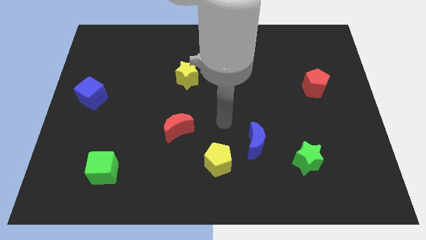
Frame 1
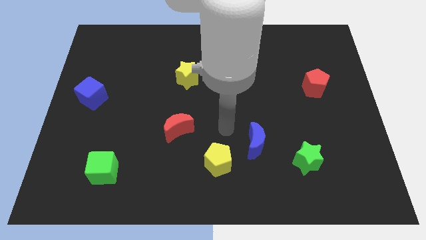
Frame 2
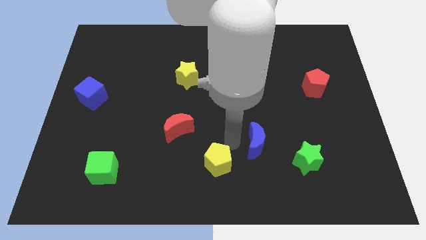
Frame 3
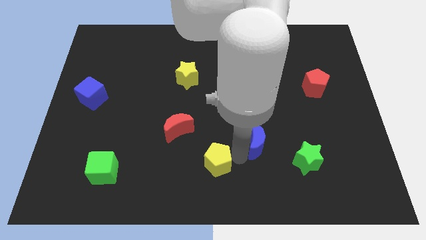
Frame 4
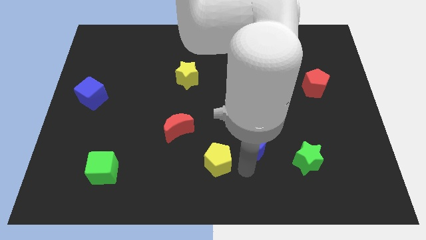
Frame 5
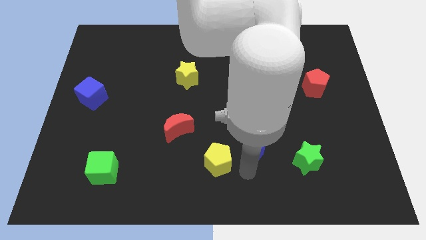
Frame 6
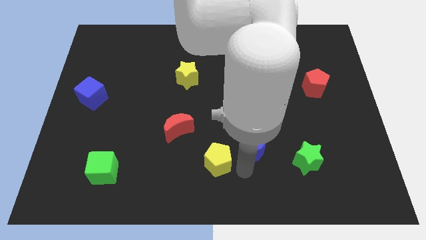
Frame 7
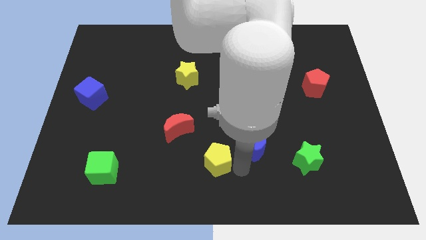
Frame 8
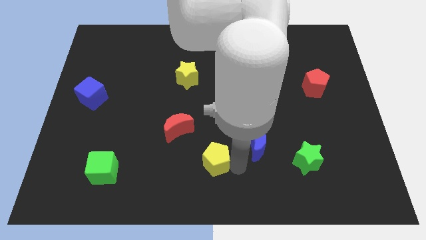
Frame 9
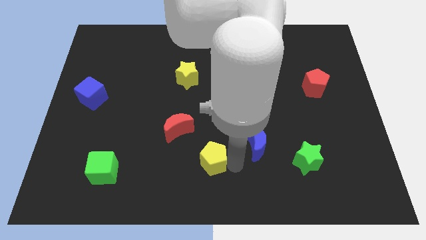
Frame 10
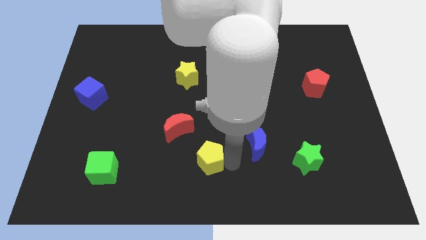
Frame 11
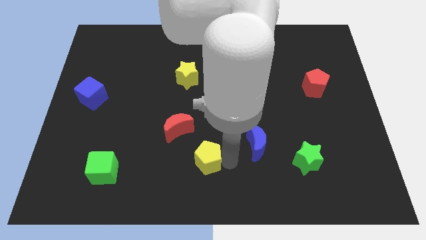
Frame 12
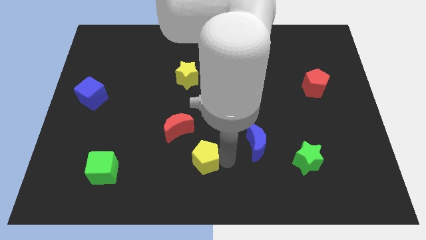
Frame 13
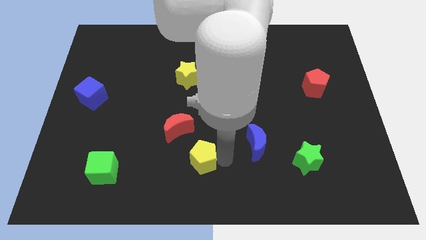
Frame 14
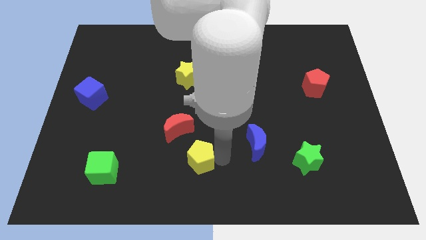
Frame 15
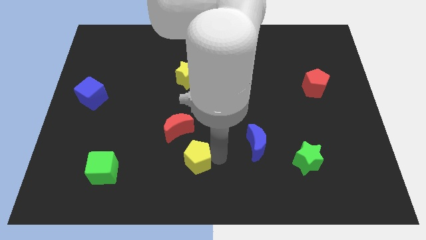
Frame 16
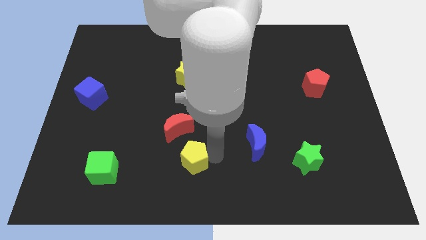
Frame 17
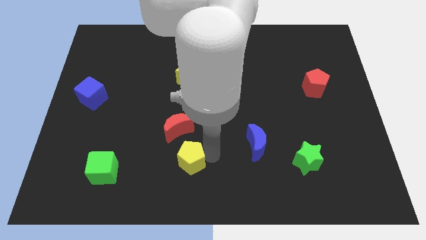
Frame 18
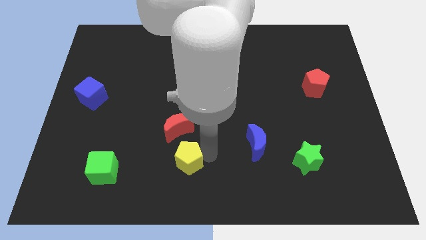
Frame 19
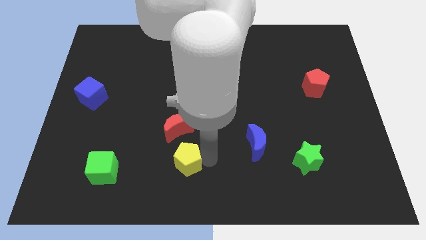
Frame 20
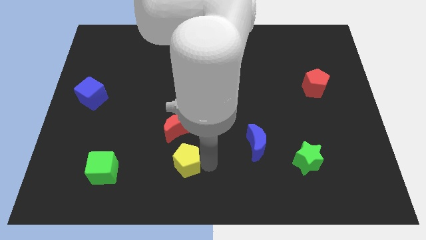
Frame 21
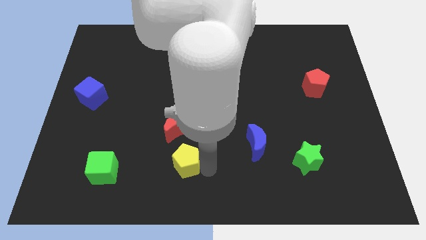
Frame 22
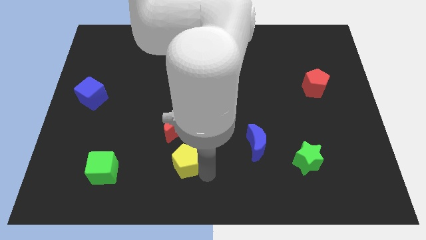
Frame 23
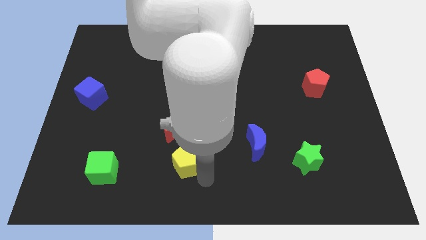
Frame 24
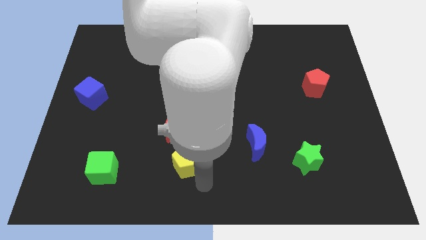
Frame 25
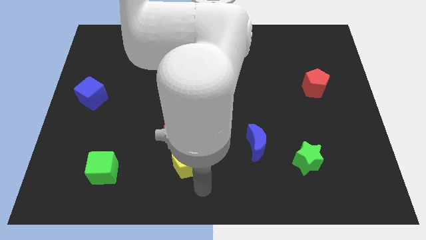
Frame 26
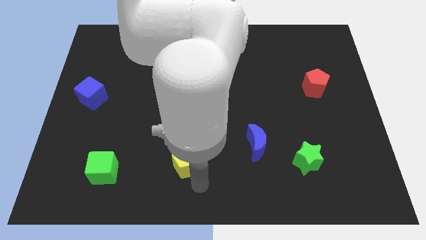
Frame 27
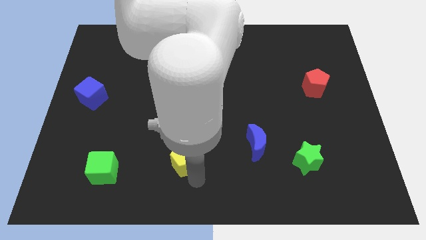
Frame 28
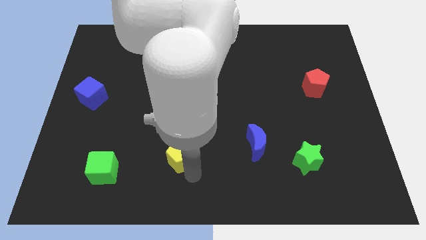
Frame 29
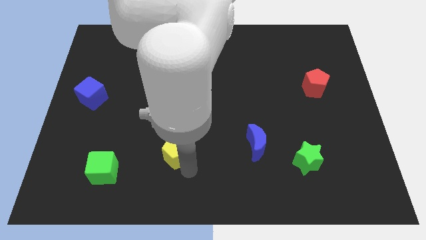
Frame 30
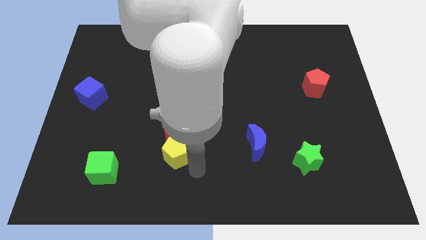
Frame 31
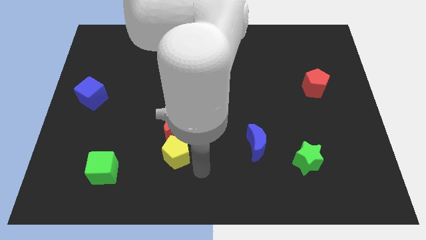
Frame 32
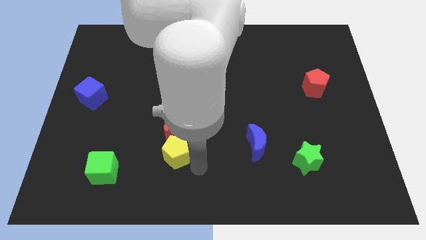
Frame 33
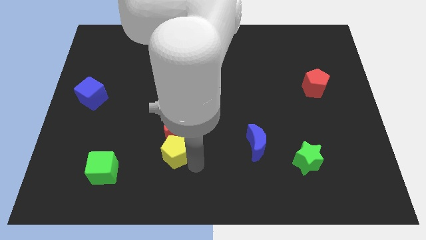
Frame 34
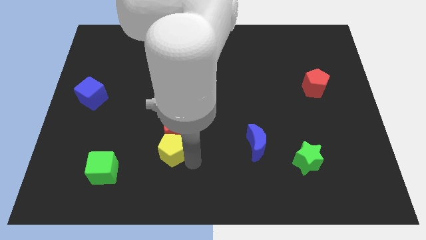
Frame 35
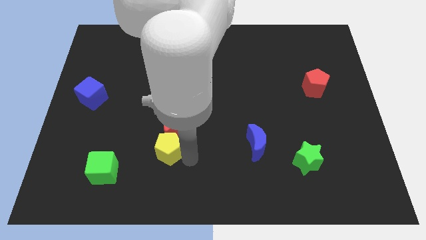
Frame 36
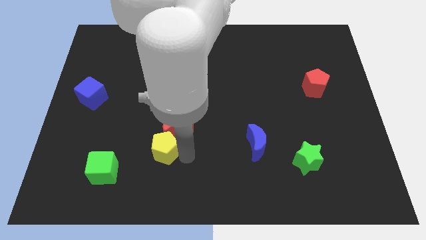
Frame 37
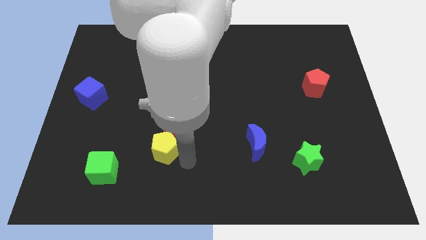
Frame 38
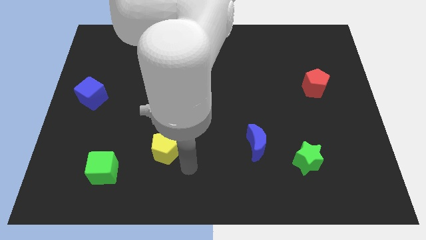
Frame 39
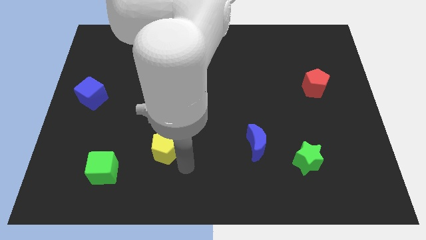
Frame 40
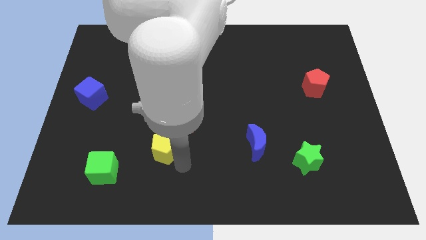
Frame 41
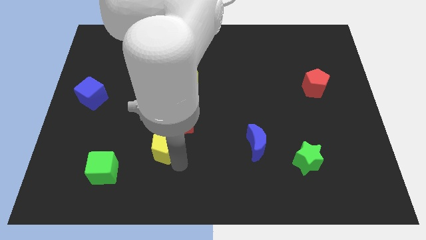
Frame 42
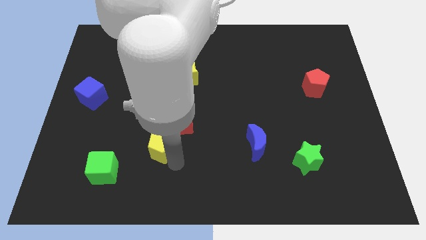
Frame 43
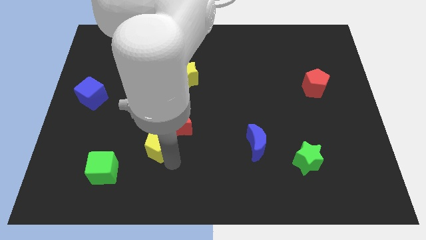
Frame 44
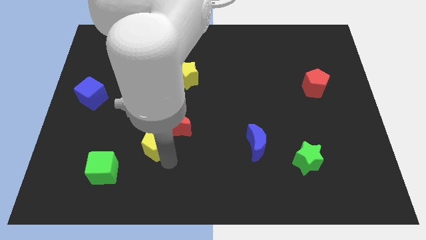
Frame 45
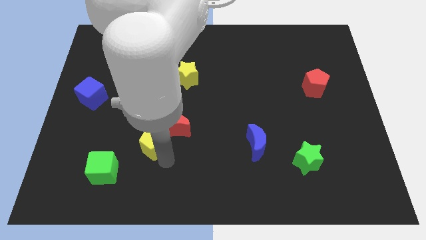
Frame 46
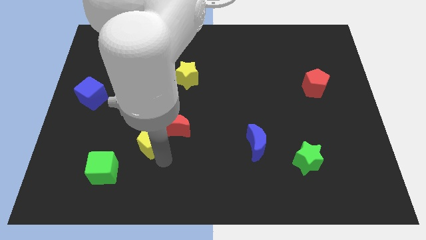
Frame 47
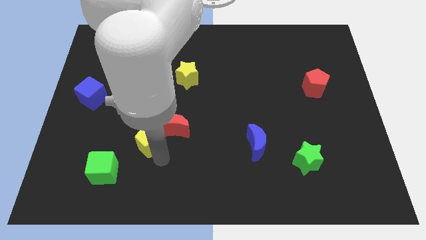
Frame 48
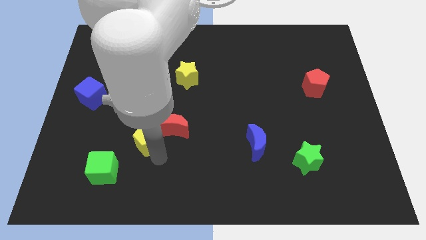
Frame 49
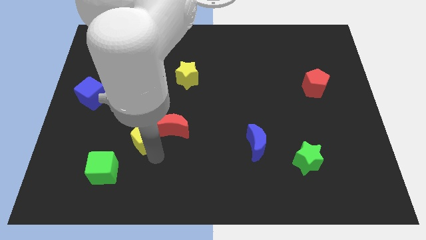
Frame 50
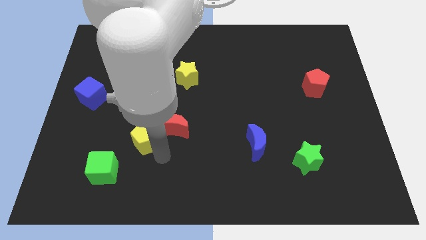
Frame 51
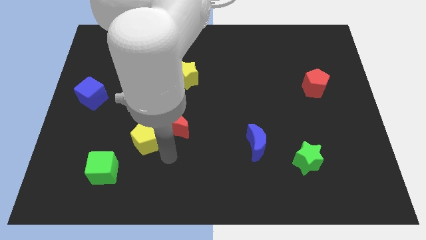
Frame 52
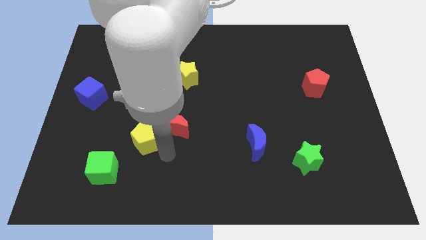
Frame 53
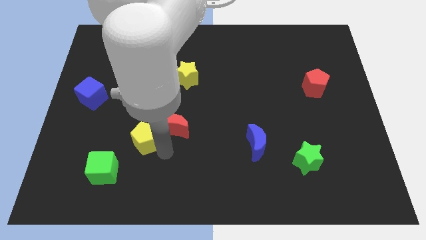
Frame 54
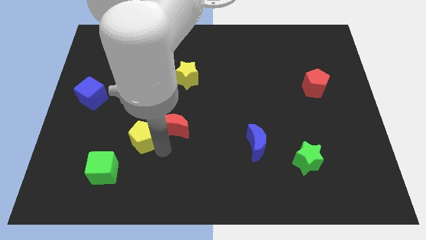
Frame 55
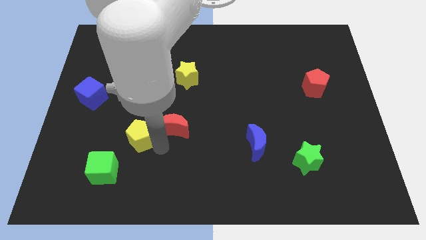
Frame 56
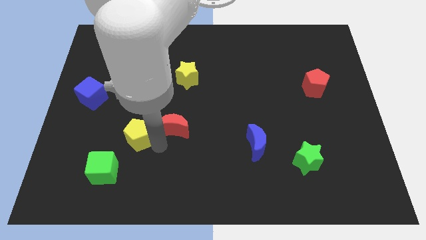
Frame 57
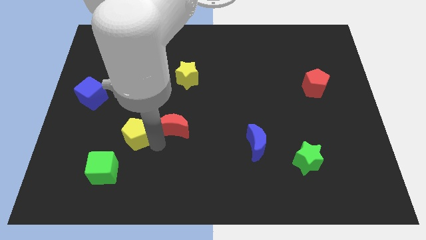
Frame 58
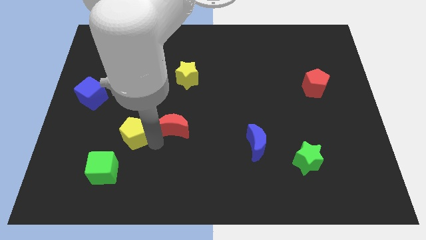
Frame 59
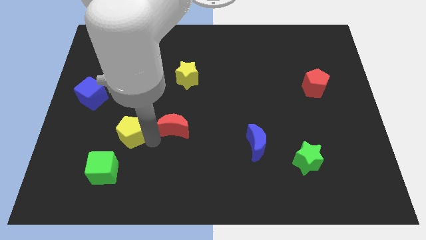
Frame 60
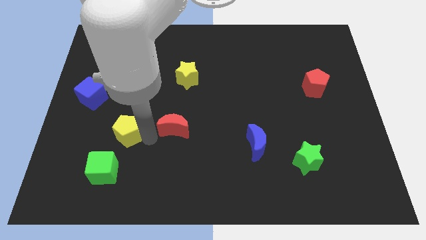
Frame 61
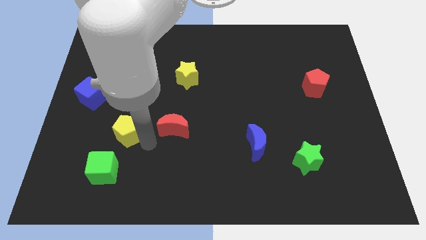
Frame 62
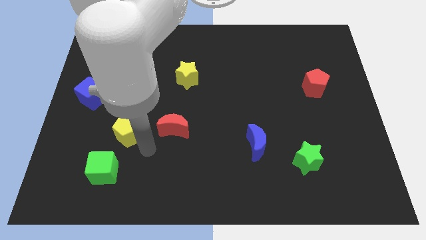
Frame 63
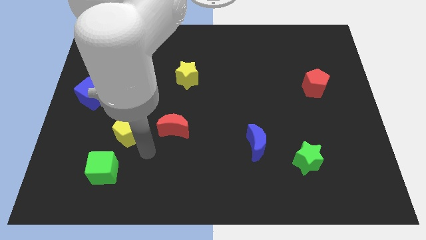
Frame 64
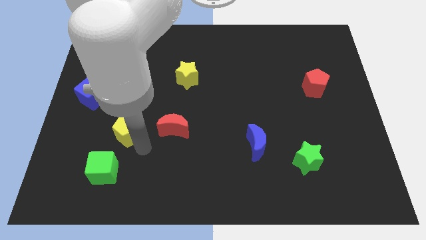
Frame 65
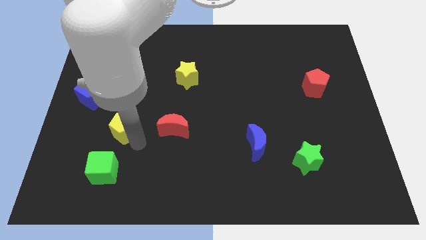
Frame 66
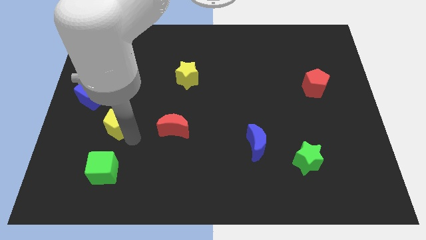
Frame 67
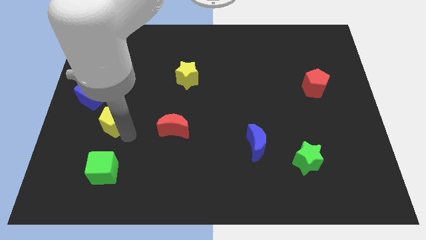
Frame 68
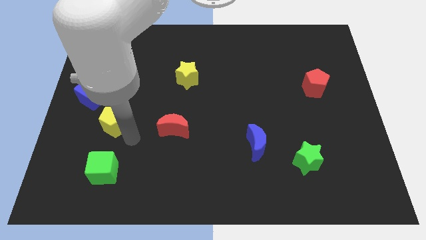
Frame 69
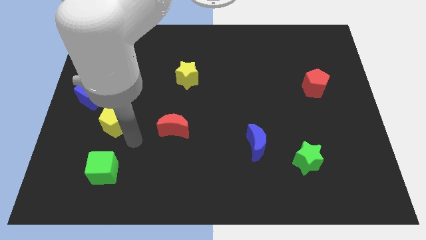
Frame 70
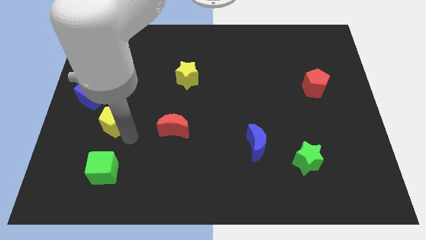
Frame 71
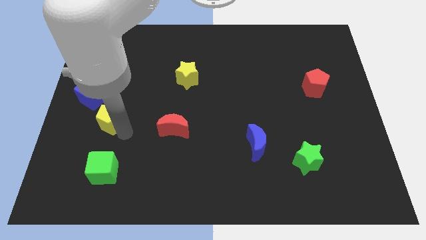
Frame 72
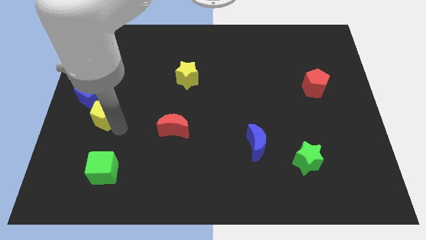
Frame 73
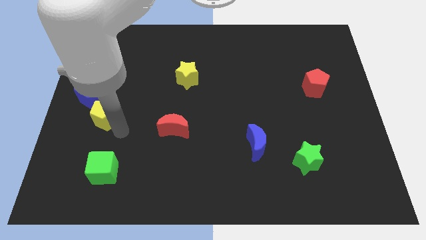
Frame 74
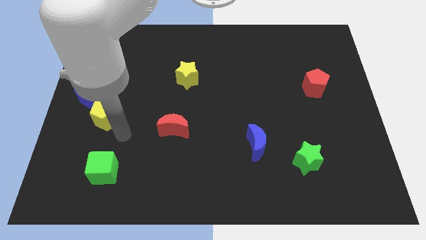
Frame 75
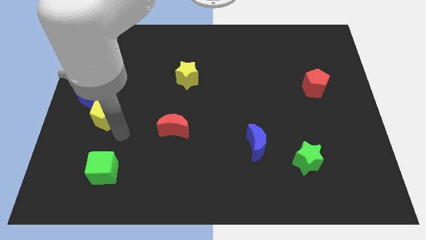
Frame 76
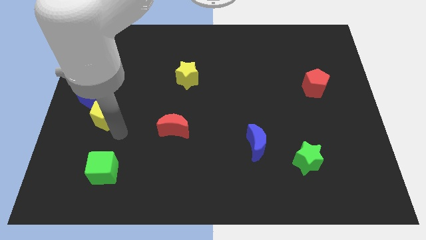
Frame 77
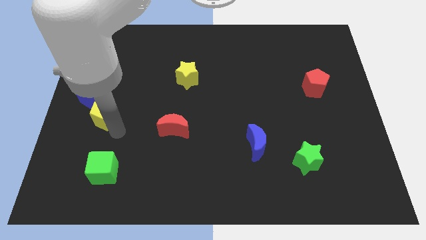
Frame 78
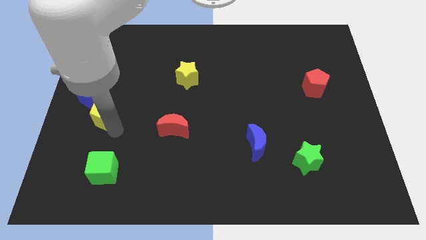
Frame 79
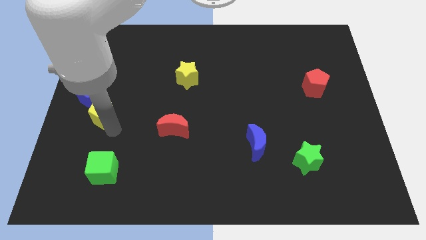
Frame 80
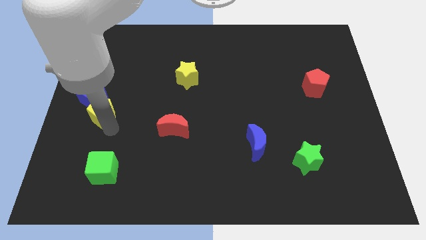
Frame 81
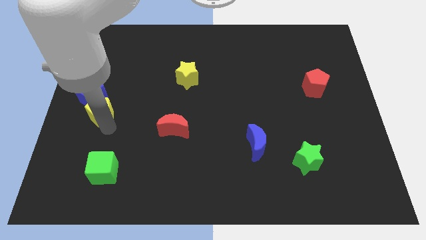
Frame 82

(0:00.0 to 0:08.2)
move the yellow pentagon to the blue cube

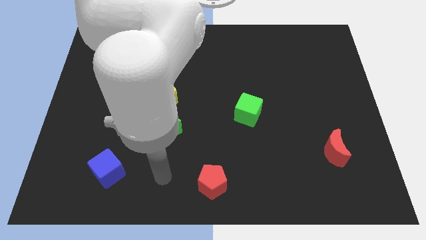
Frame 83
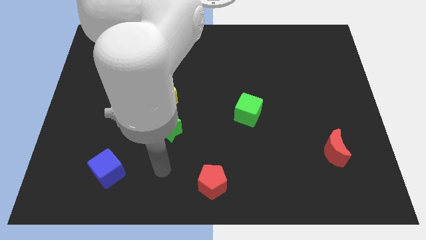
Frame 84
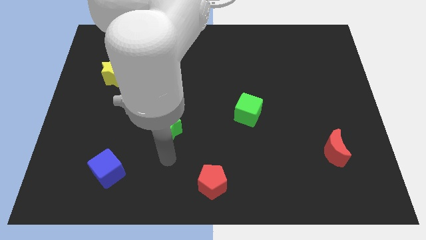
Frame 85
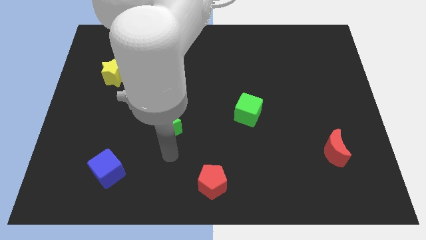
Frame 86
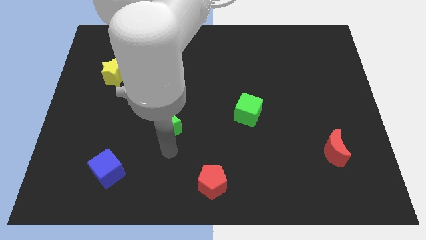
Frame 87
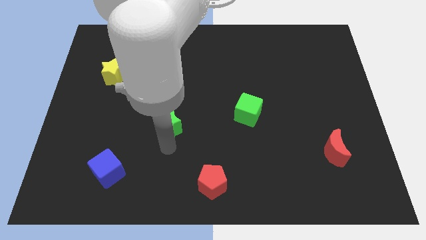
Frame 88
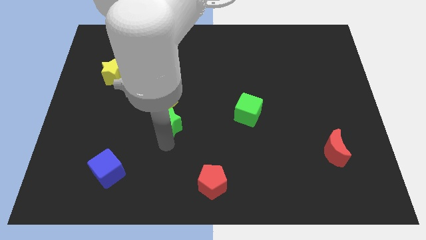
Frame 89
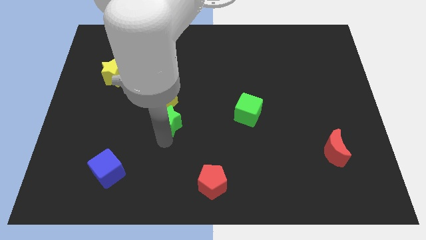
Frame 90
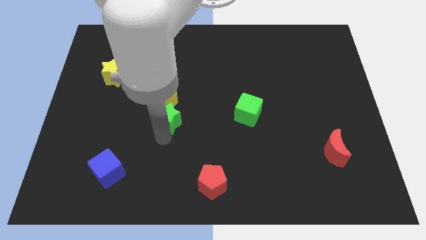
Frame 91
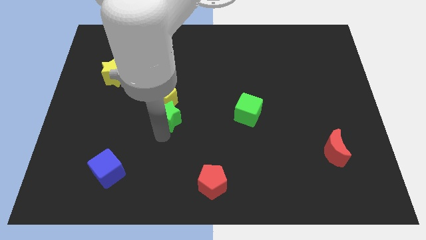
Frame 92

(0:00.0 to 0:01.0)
slide the green star to the yellow pentagon
